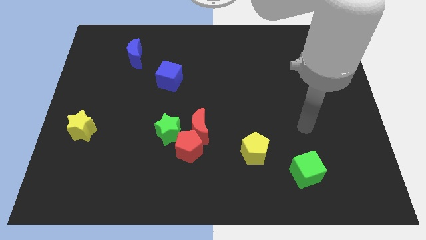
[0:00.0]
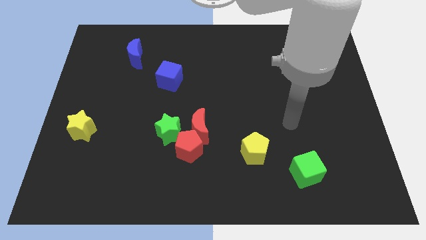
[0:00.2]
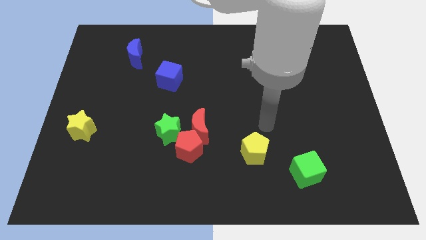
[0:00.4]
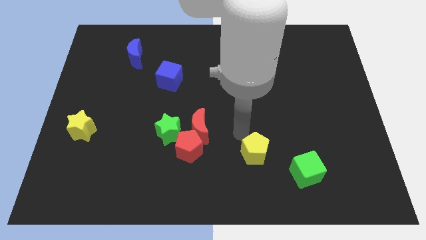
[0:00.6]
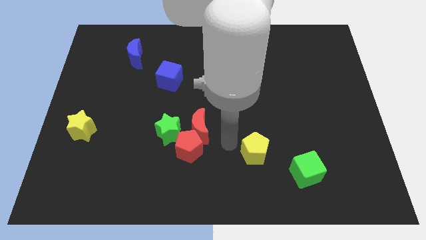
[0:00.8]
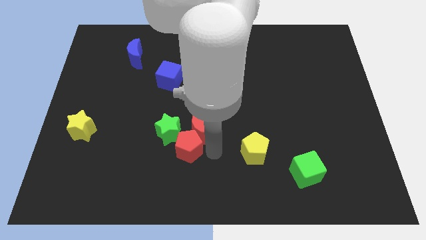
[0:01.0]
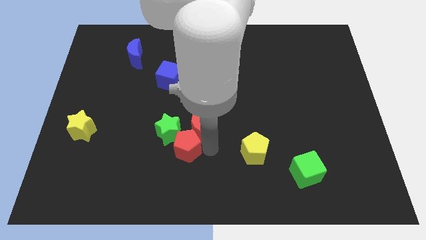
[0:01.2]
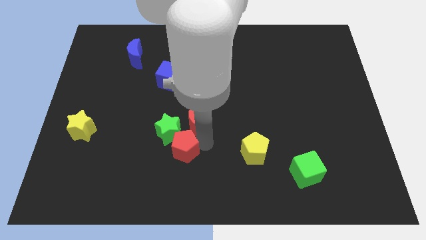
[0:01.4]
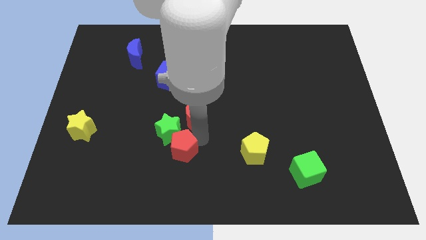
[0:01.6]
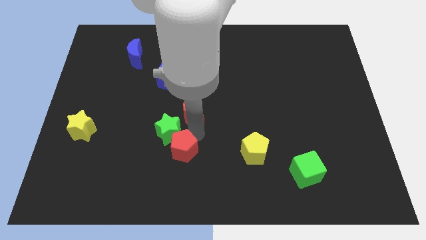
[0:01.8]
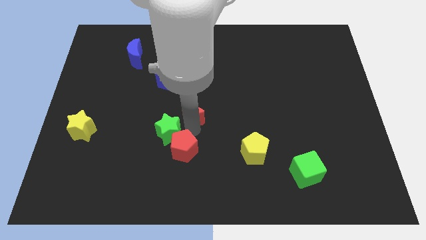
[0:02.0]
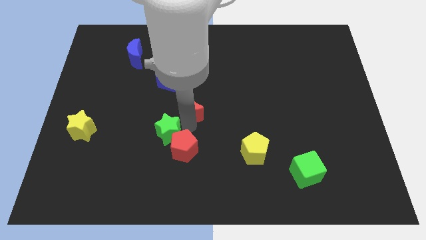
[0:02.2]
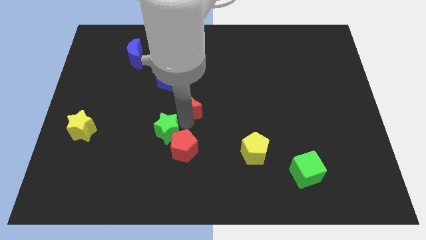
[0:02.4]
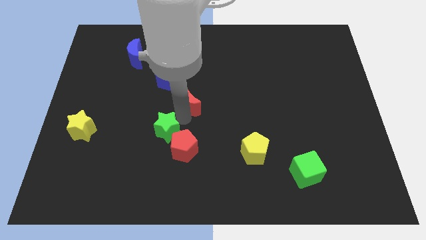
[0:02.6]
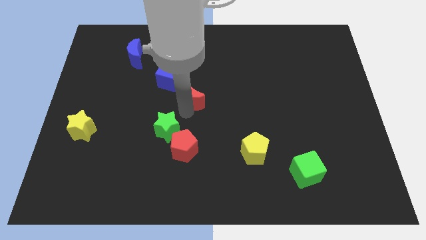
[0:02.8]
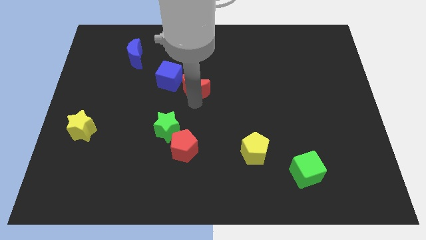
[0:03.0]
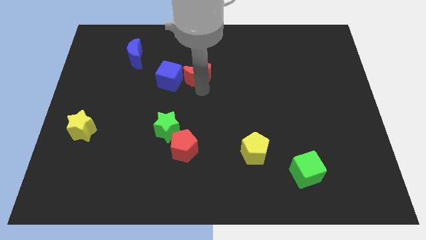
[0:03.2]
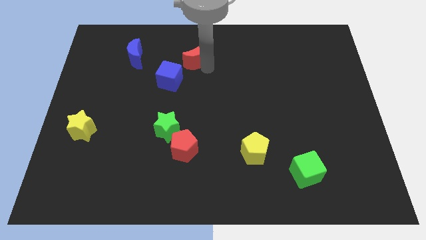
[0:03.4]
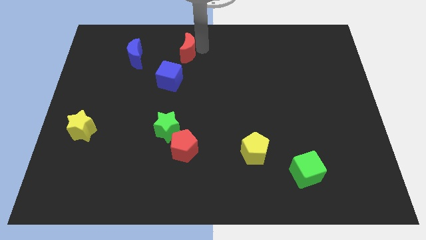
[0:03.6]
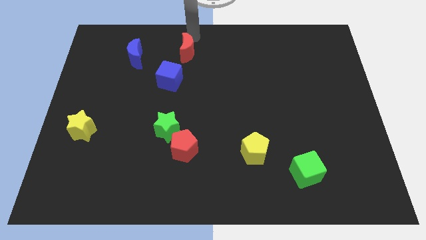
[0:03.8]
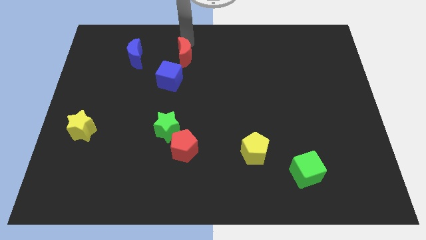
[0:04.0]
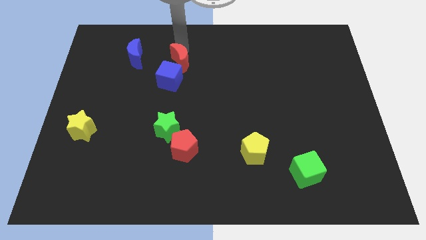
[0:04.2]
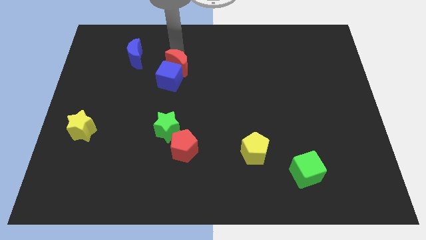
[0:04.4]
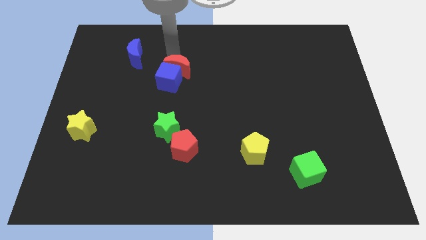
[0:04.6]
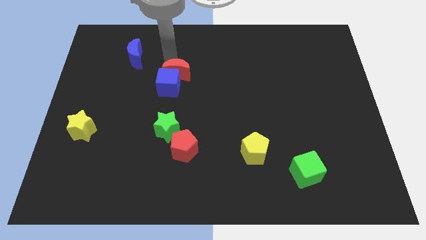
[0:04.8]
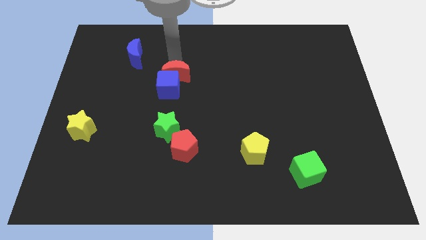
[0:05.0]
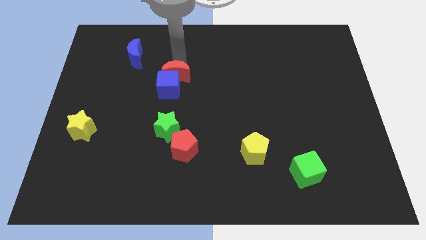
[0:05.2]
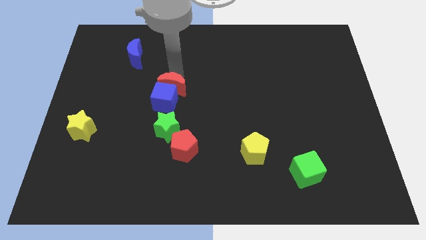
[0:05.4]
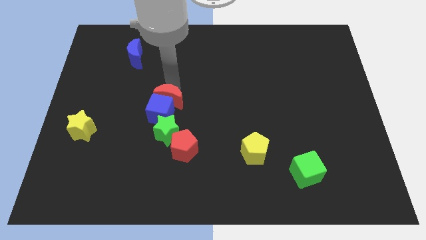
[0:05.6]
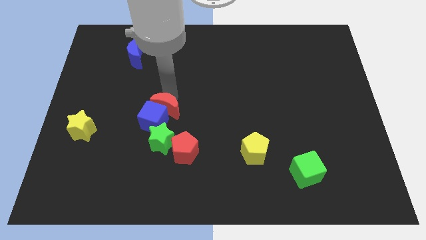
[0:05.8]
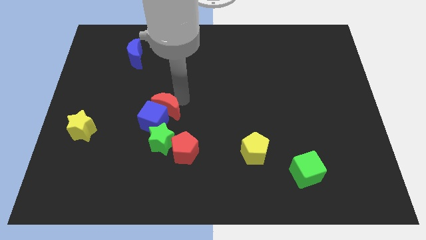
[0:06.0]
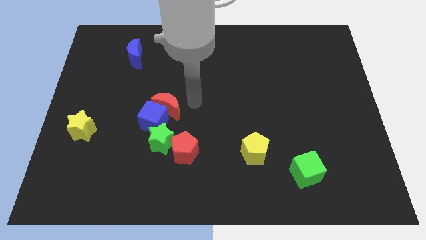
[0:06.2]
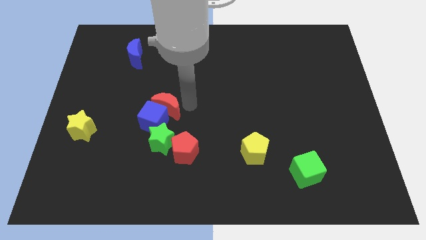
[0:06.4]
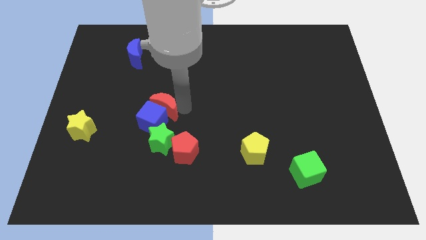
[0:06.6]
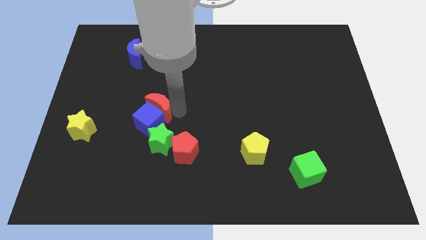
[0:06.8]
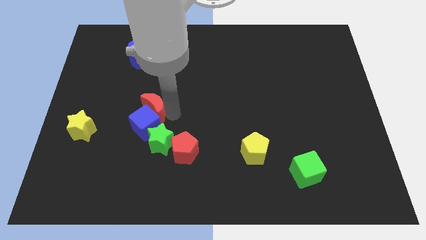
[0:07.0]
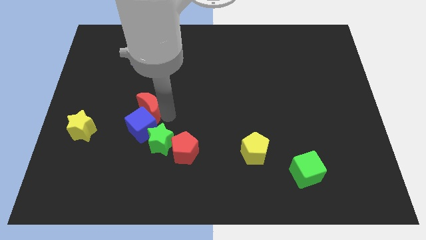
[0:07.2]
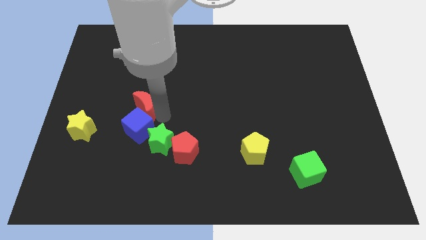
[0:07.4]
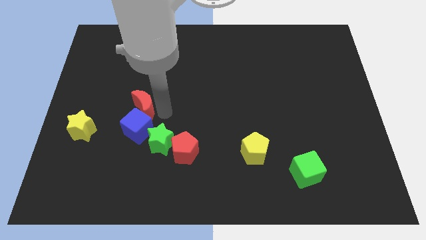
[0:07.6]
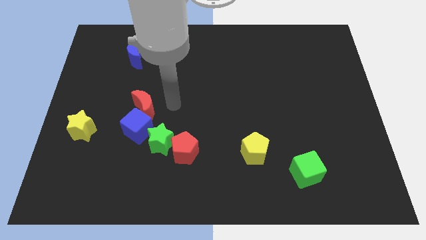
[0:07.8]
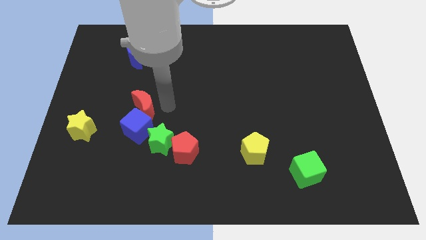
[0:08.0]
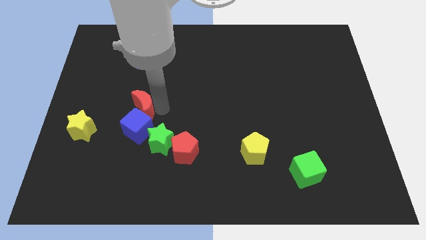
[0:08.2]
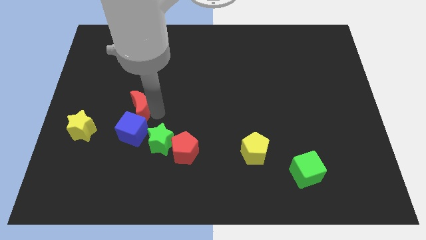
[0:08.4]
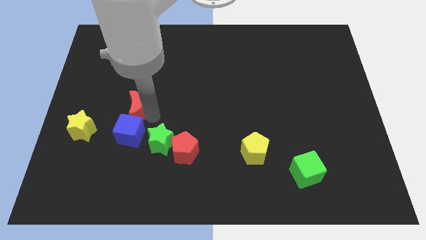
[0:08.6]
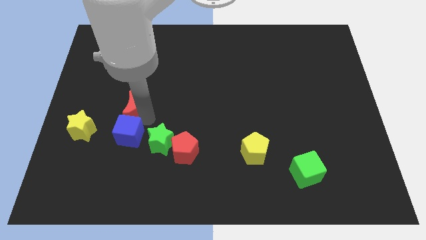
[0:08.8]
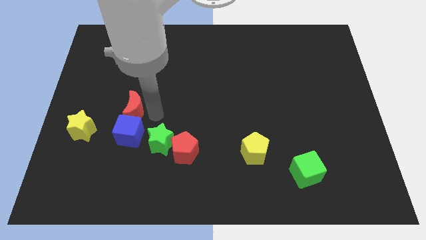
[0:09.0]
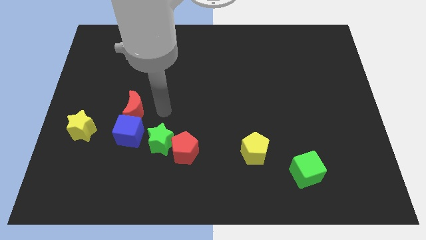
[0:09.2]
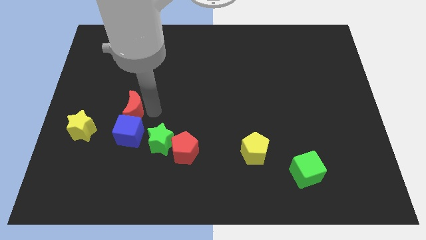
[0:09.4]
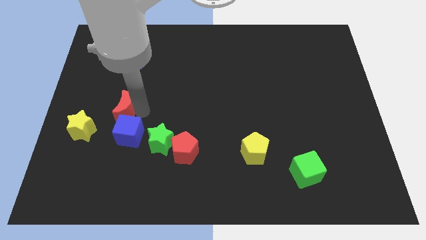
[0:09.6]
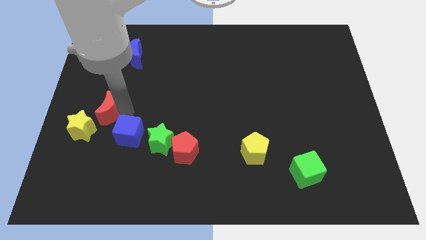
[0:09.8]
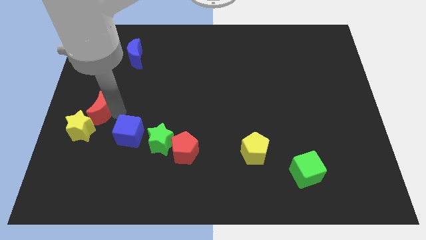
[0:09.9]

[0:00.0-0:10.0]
slide the red moon to the left side

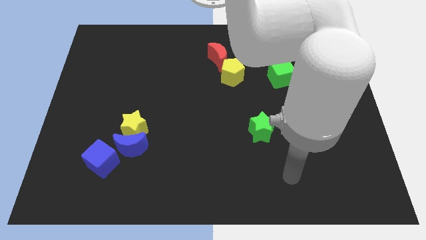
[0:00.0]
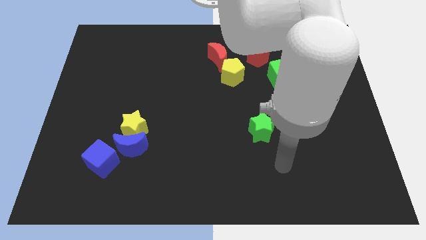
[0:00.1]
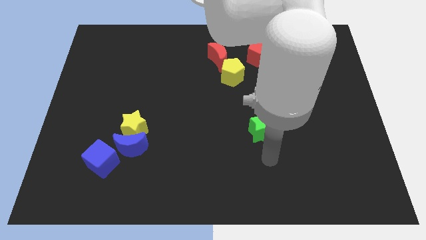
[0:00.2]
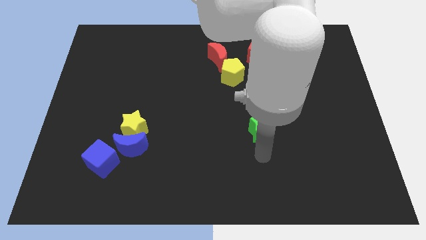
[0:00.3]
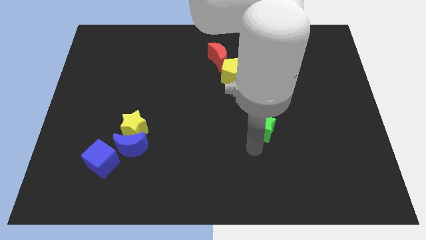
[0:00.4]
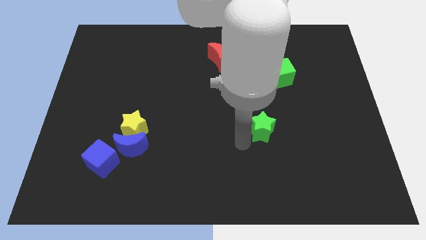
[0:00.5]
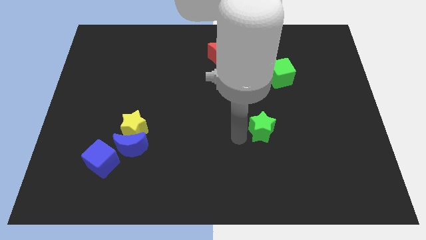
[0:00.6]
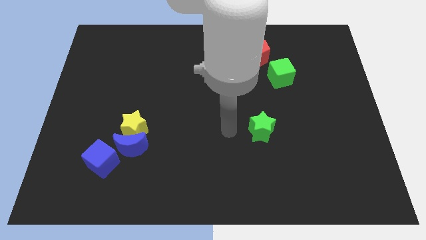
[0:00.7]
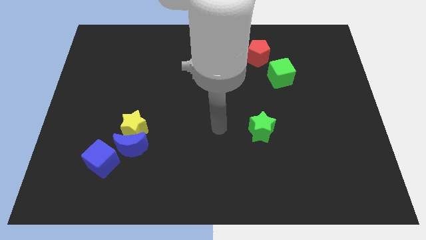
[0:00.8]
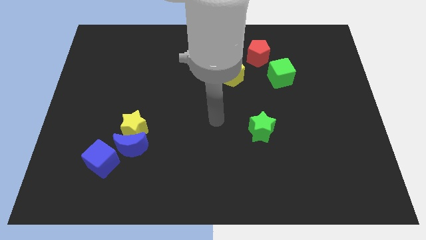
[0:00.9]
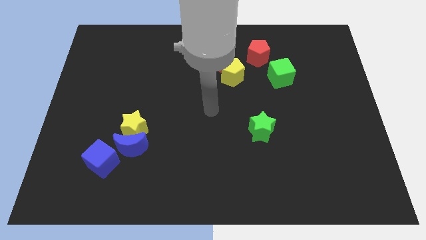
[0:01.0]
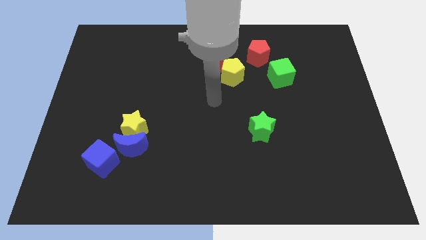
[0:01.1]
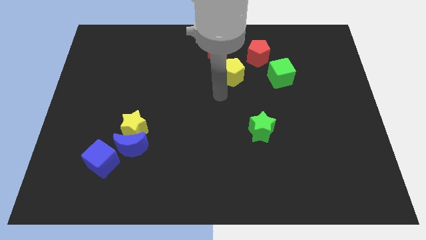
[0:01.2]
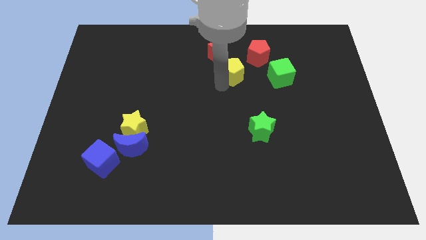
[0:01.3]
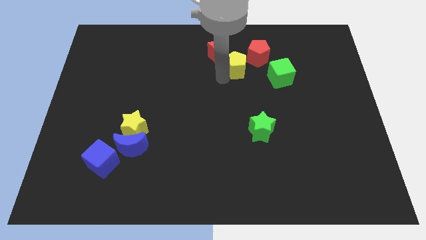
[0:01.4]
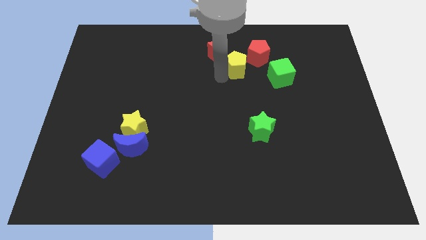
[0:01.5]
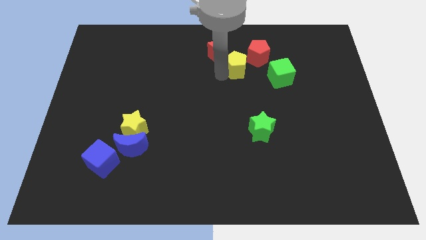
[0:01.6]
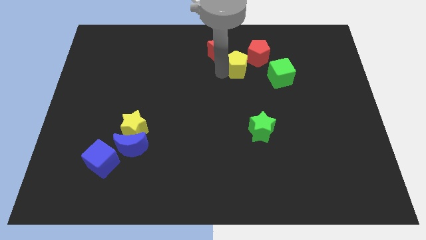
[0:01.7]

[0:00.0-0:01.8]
slide the red moon to the top side
